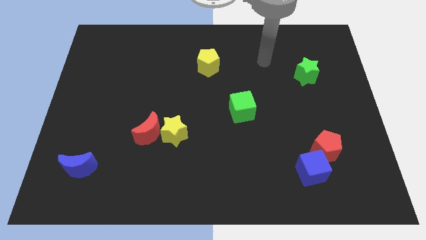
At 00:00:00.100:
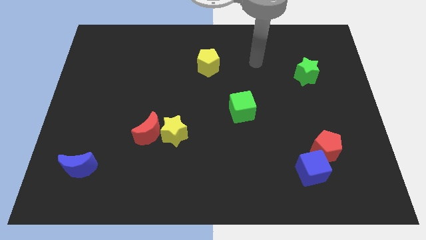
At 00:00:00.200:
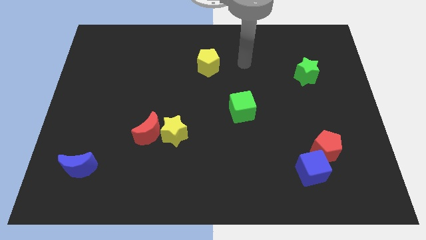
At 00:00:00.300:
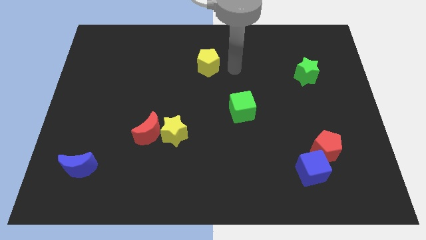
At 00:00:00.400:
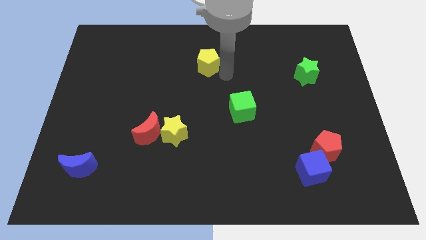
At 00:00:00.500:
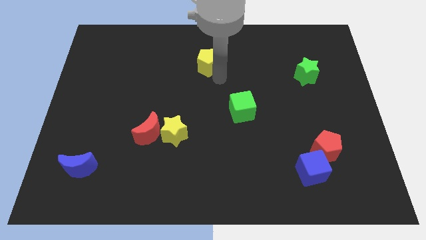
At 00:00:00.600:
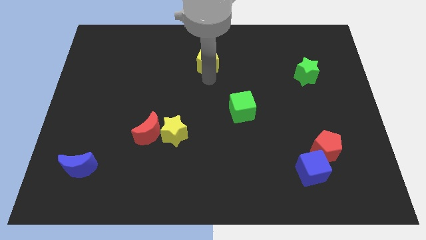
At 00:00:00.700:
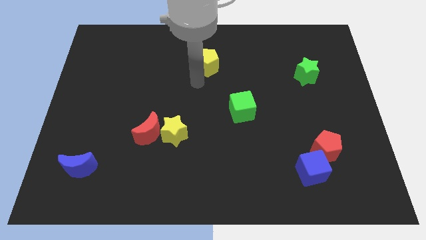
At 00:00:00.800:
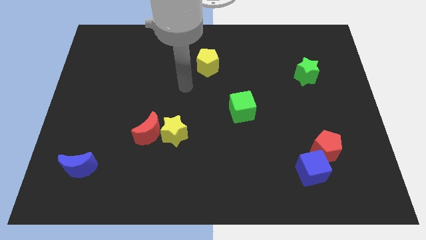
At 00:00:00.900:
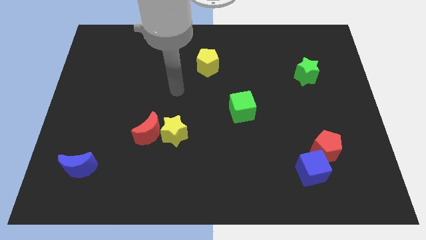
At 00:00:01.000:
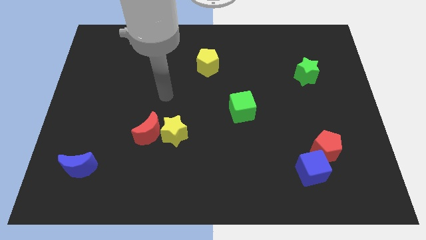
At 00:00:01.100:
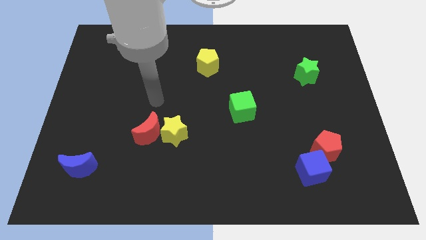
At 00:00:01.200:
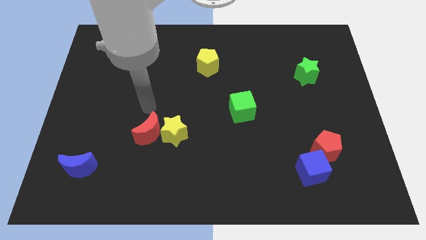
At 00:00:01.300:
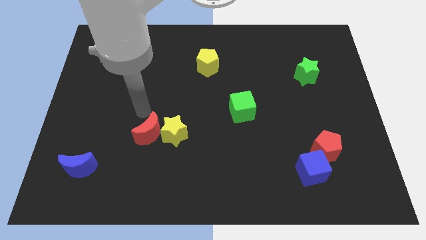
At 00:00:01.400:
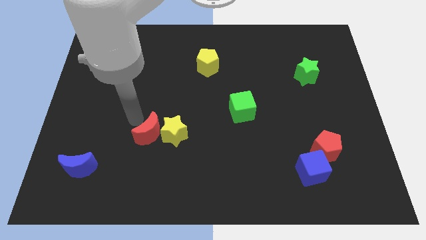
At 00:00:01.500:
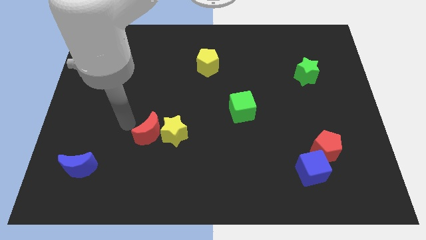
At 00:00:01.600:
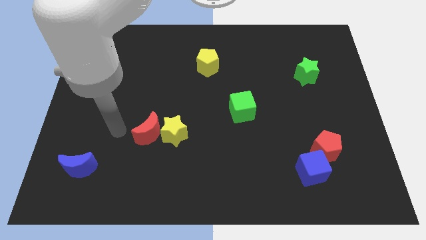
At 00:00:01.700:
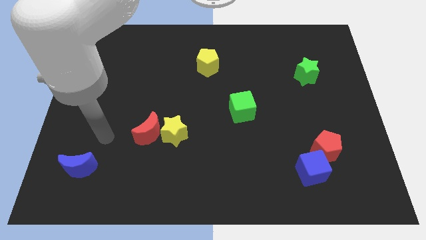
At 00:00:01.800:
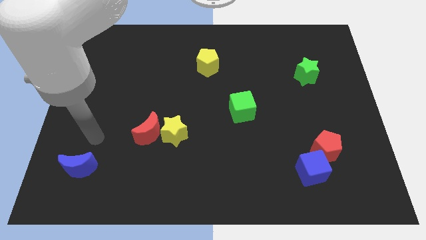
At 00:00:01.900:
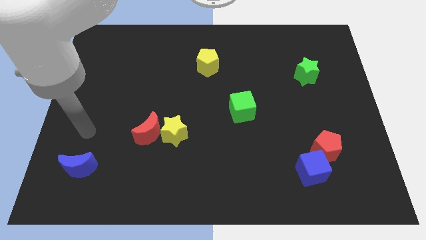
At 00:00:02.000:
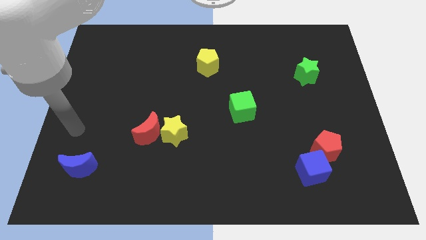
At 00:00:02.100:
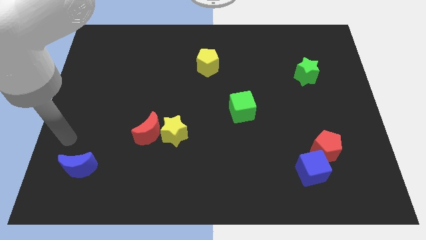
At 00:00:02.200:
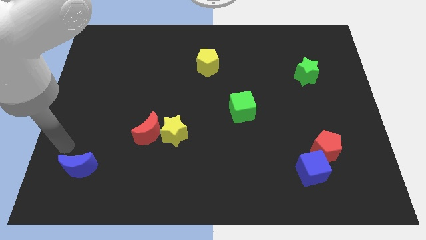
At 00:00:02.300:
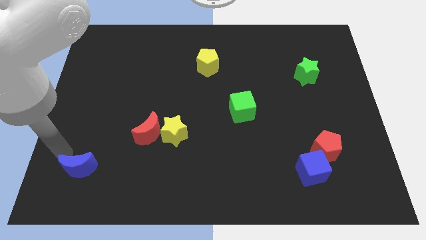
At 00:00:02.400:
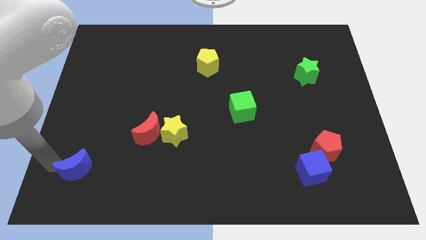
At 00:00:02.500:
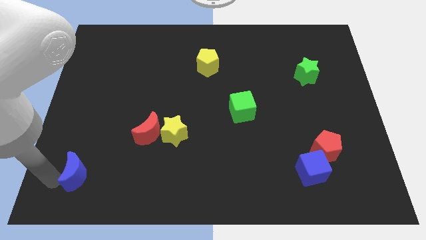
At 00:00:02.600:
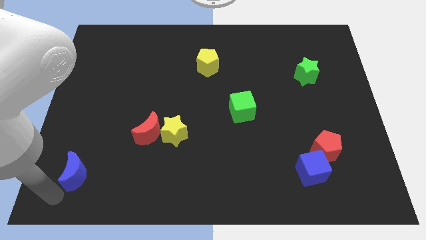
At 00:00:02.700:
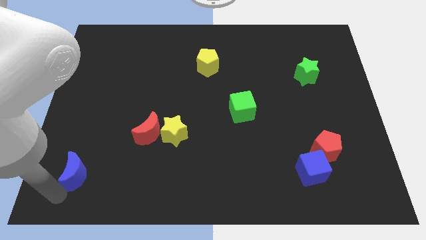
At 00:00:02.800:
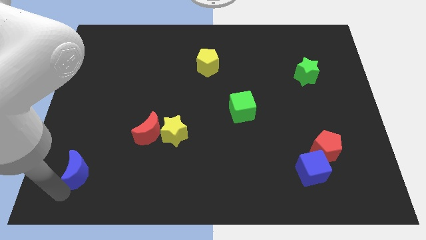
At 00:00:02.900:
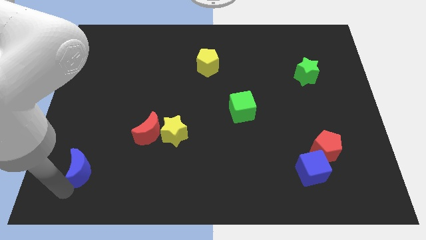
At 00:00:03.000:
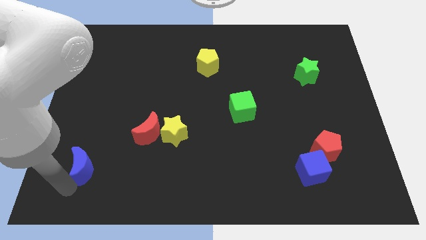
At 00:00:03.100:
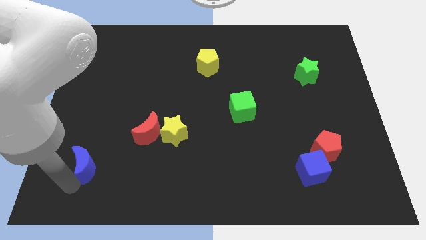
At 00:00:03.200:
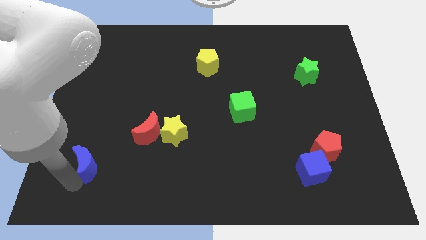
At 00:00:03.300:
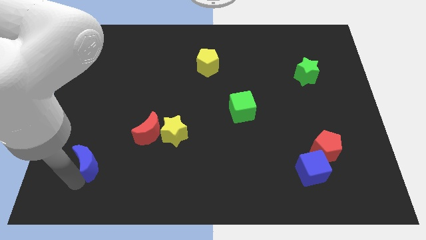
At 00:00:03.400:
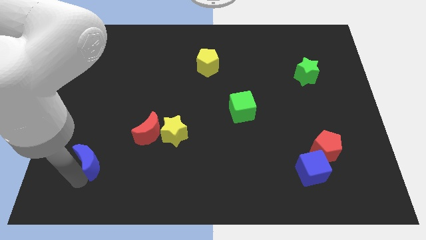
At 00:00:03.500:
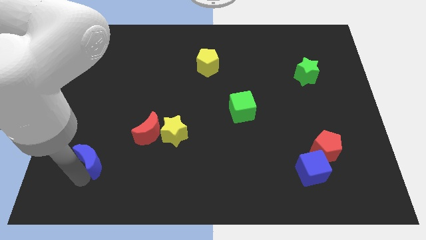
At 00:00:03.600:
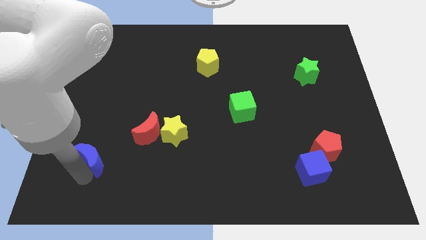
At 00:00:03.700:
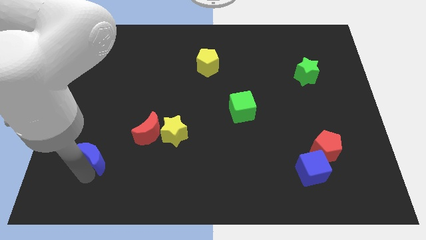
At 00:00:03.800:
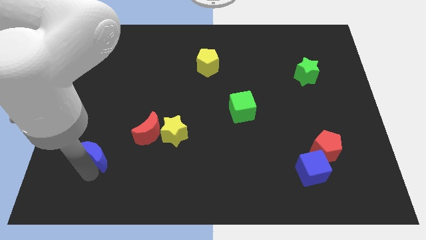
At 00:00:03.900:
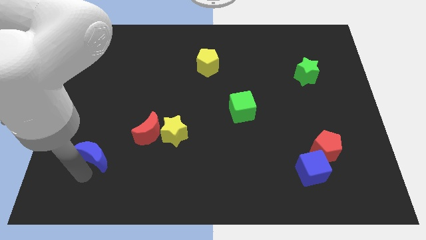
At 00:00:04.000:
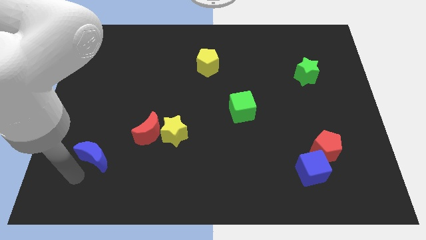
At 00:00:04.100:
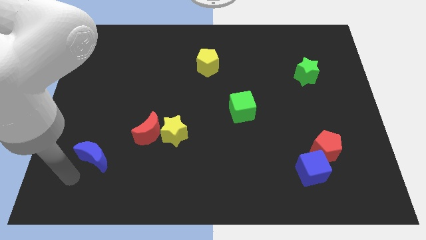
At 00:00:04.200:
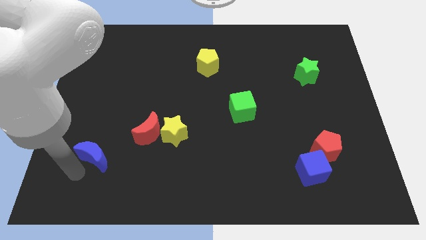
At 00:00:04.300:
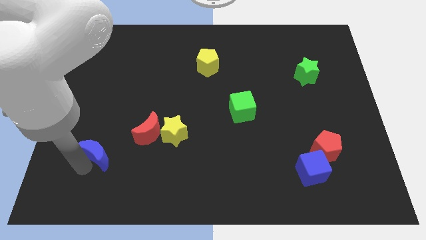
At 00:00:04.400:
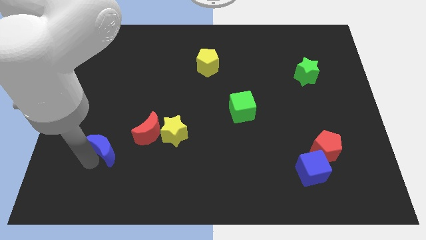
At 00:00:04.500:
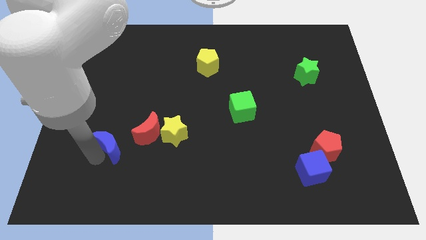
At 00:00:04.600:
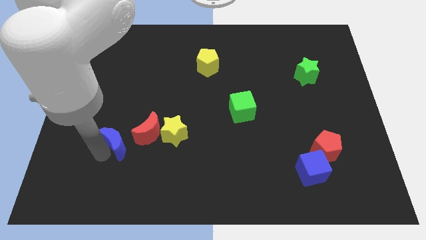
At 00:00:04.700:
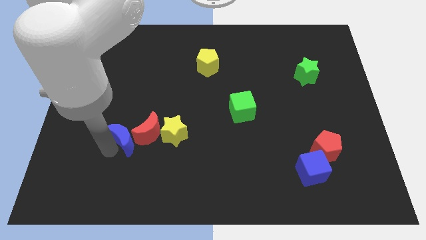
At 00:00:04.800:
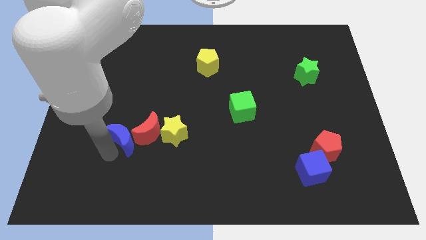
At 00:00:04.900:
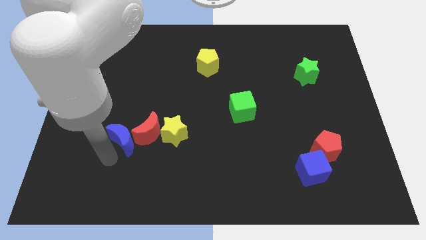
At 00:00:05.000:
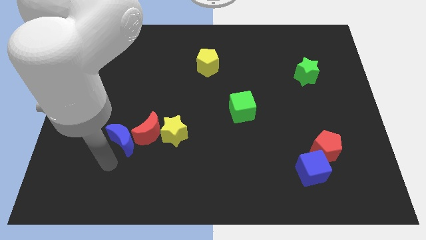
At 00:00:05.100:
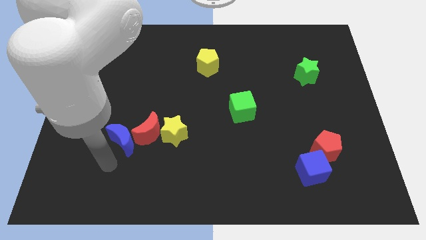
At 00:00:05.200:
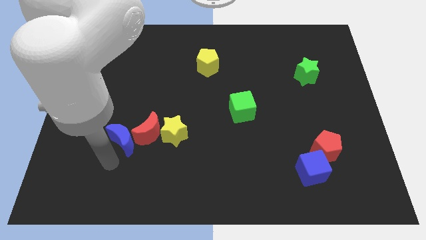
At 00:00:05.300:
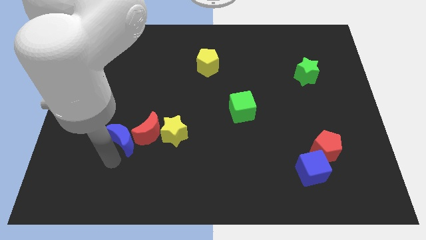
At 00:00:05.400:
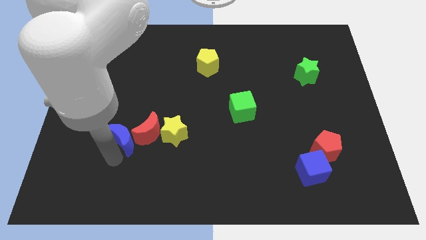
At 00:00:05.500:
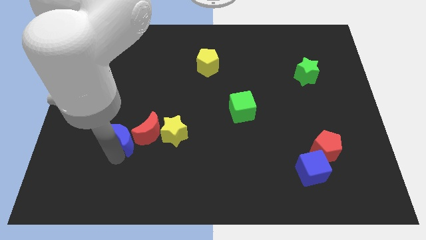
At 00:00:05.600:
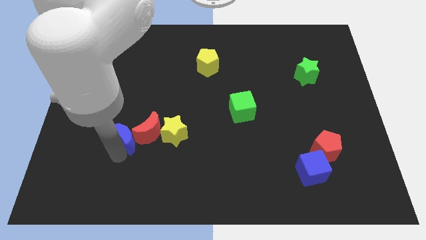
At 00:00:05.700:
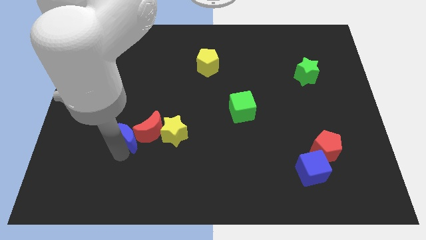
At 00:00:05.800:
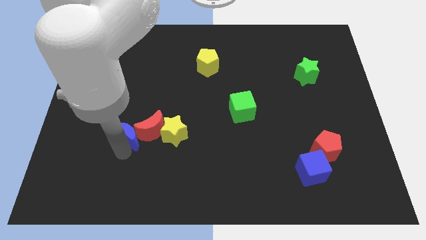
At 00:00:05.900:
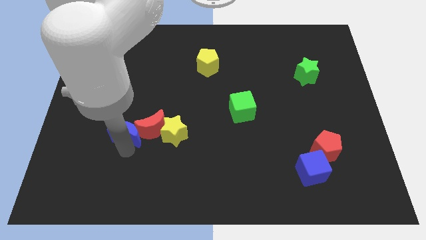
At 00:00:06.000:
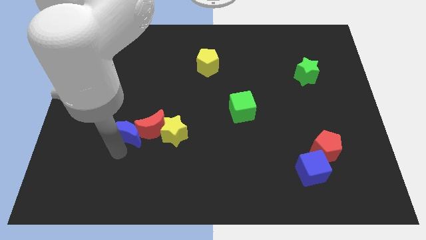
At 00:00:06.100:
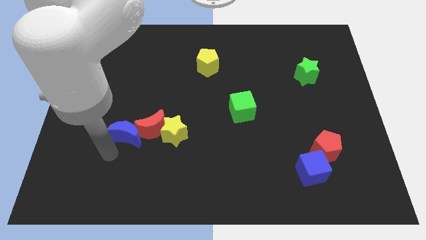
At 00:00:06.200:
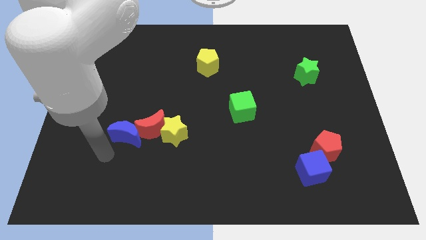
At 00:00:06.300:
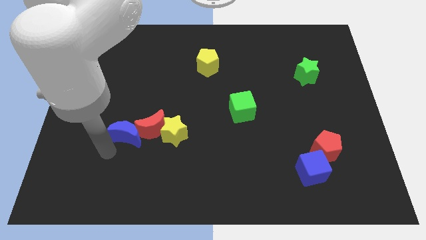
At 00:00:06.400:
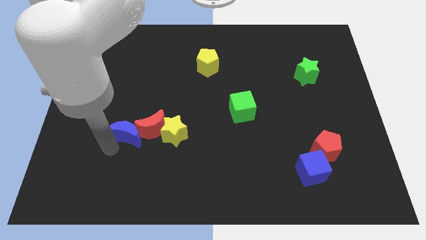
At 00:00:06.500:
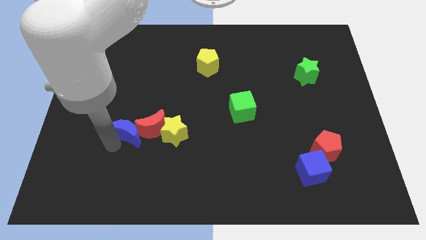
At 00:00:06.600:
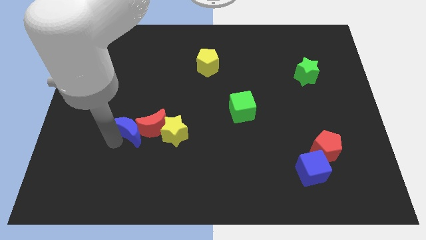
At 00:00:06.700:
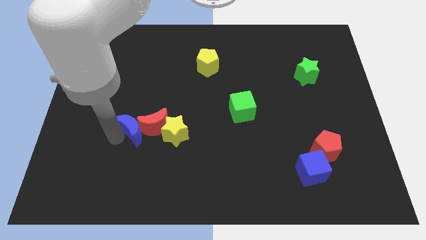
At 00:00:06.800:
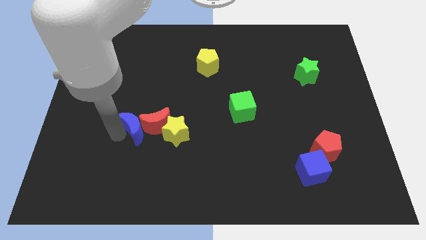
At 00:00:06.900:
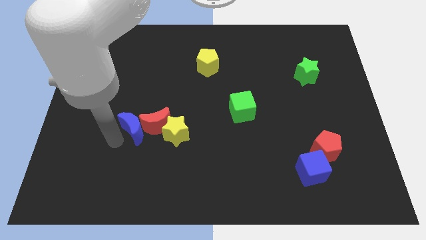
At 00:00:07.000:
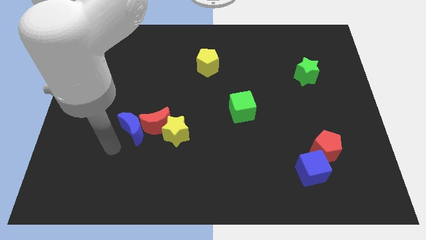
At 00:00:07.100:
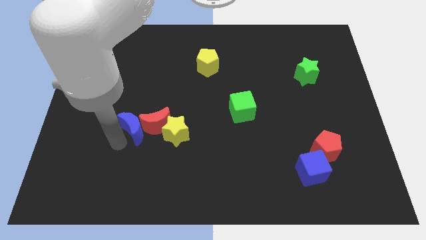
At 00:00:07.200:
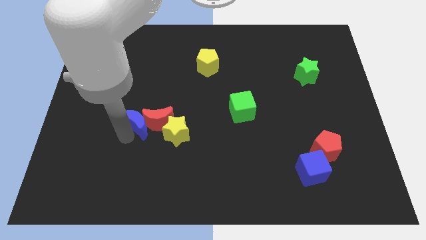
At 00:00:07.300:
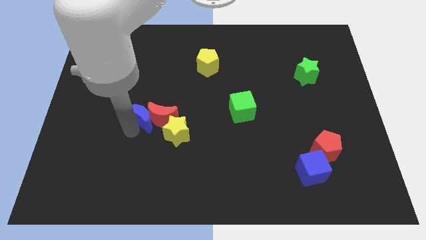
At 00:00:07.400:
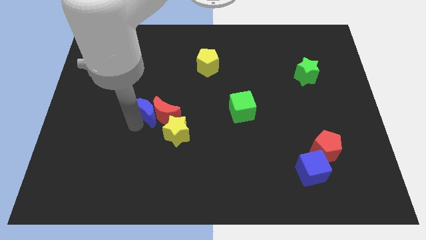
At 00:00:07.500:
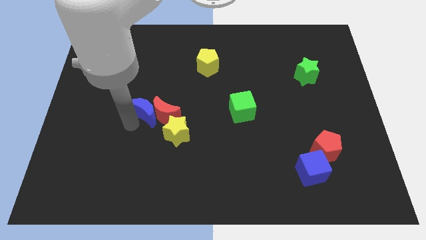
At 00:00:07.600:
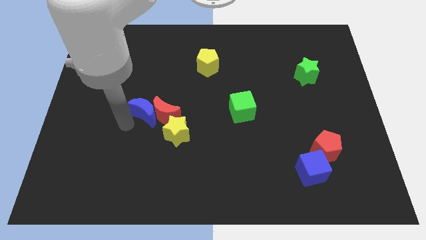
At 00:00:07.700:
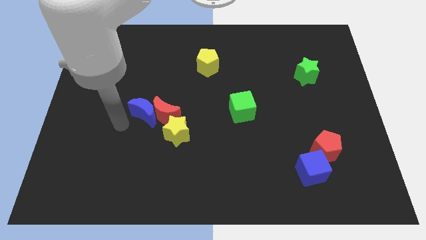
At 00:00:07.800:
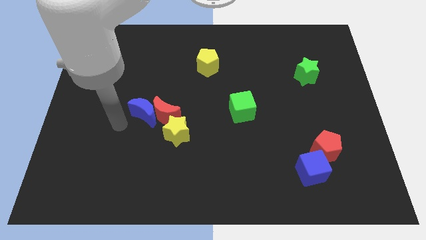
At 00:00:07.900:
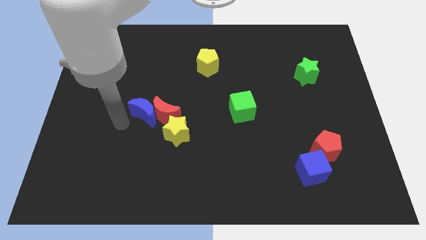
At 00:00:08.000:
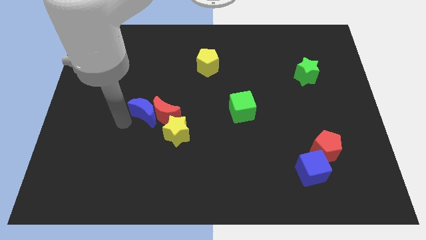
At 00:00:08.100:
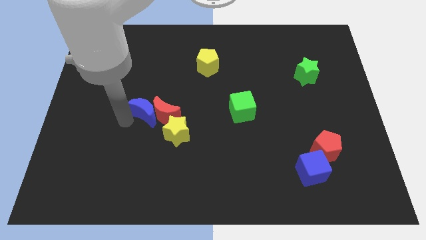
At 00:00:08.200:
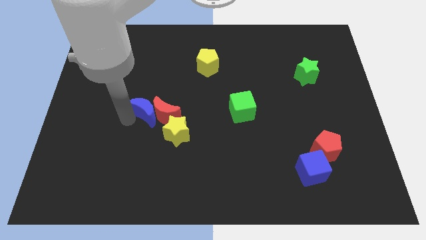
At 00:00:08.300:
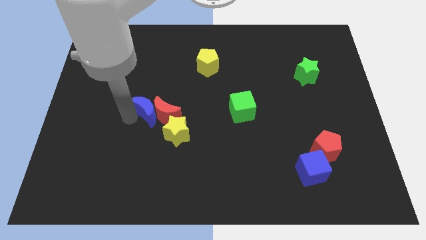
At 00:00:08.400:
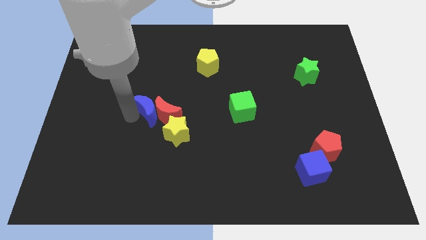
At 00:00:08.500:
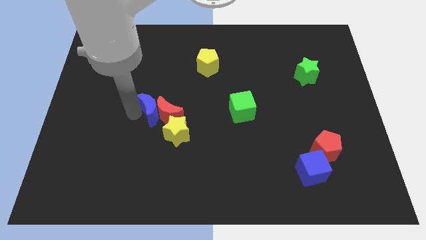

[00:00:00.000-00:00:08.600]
slide the blue moon up and right
